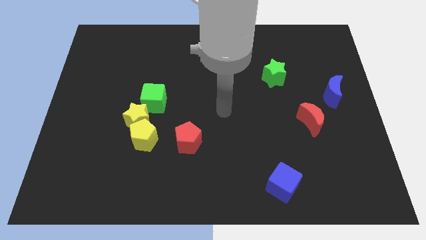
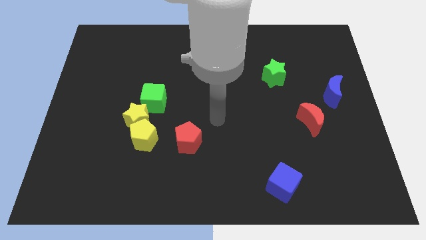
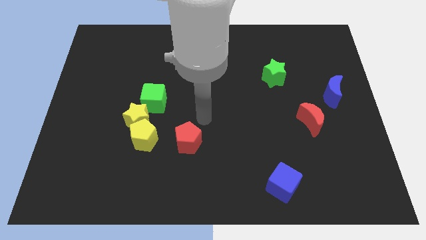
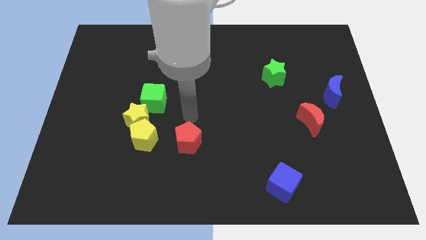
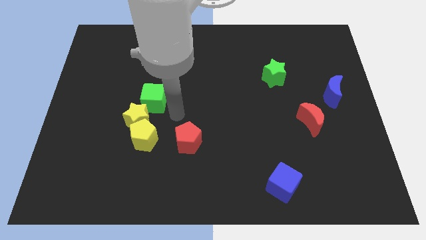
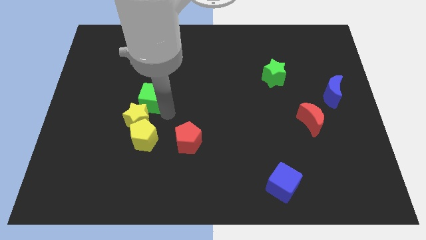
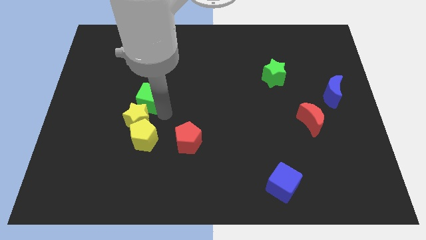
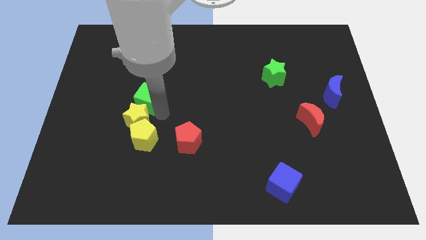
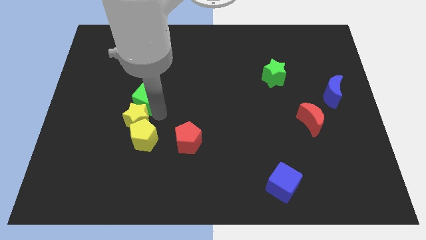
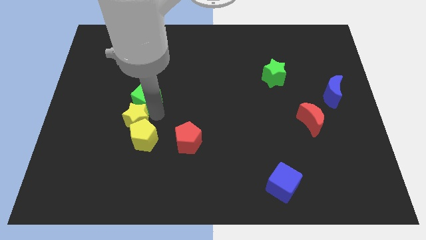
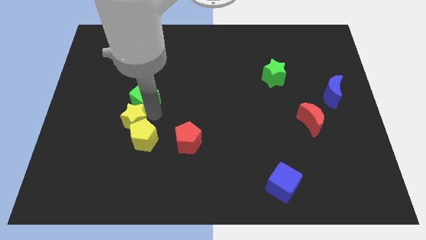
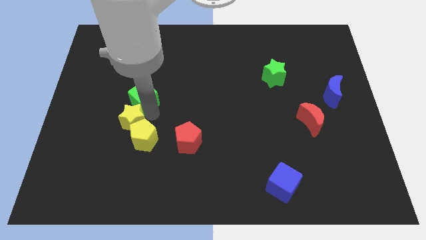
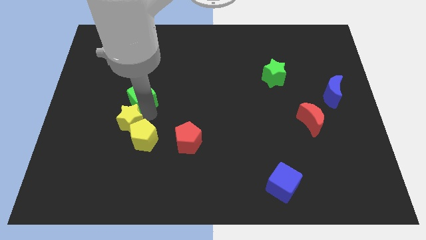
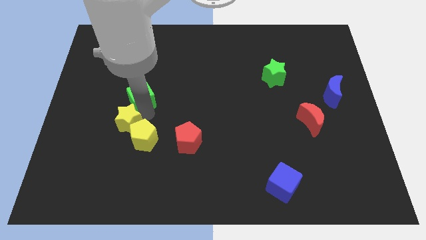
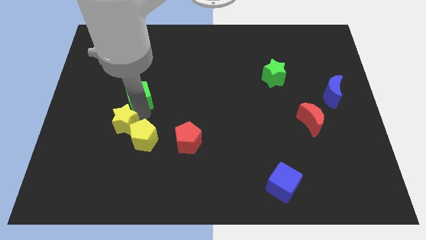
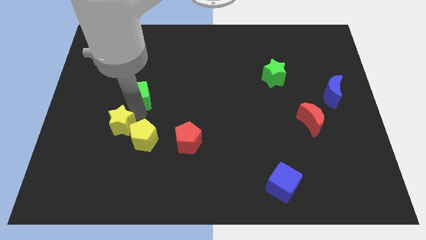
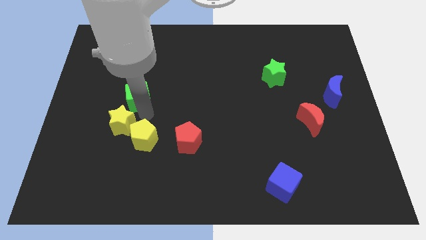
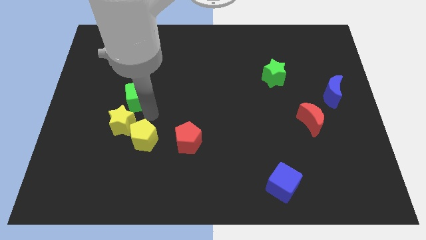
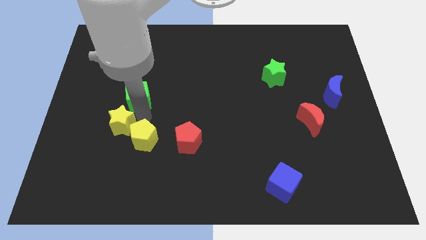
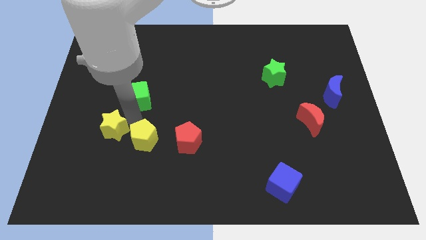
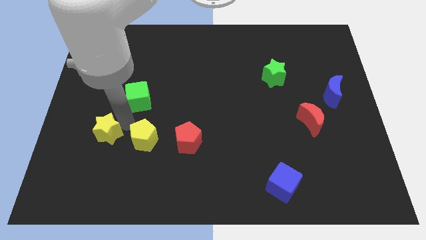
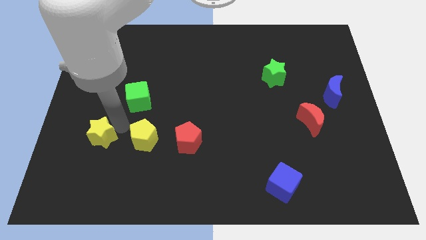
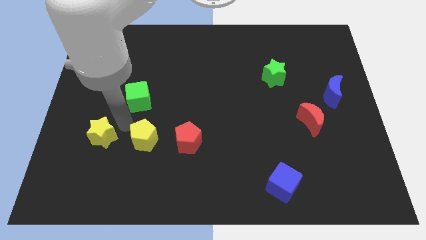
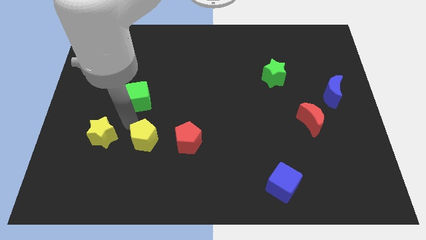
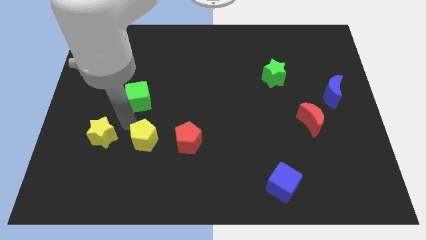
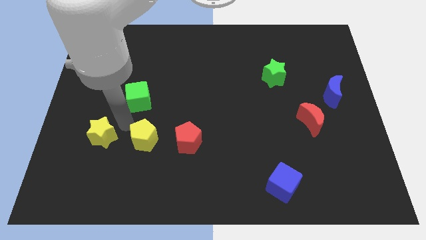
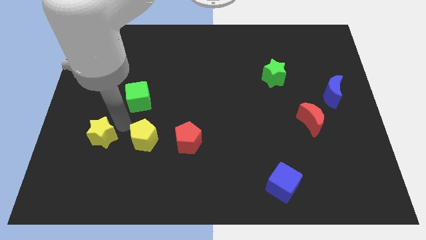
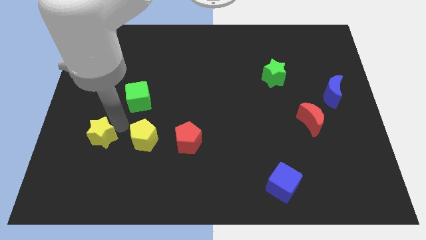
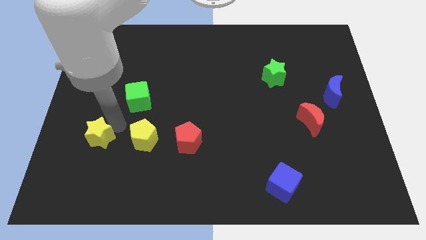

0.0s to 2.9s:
separate the yellow star from the yellow pentagon and green cube

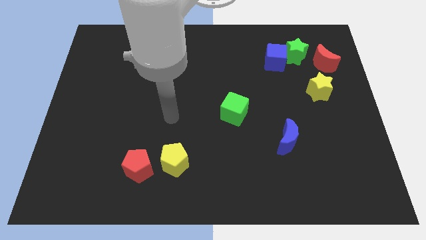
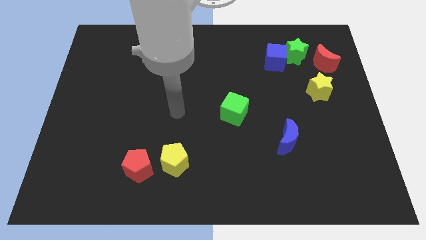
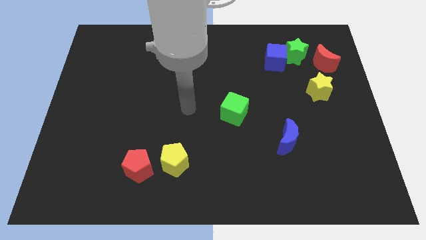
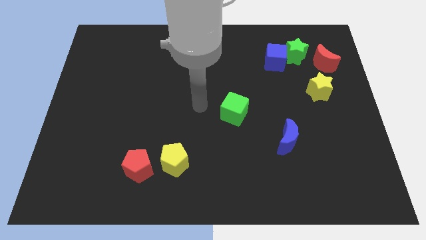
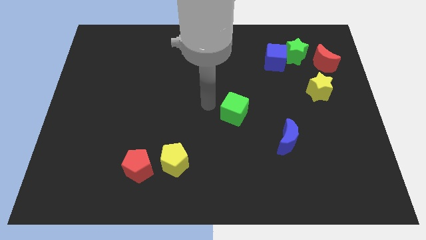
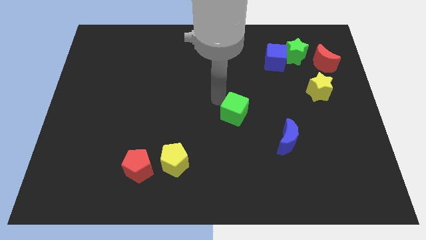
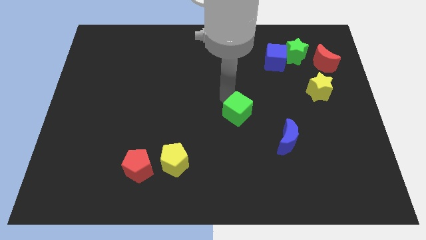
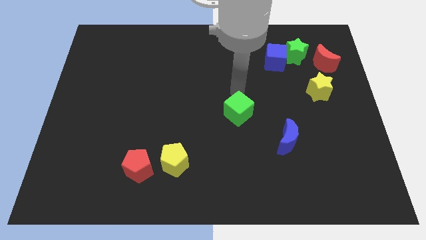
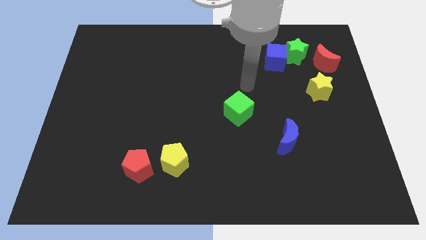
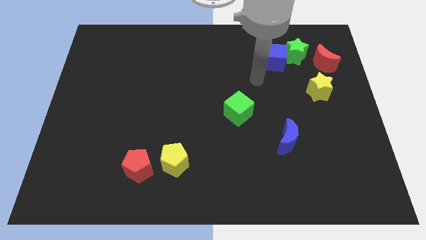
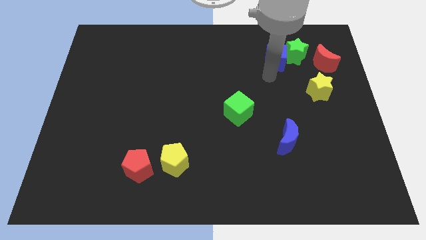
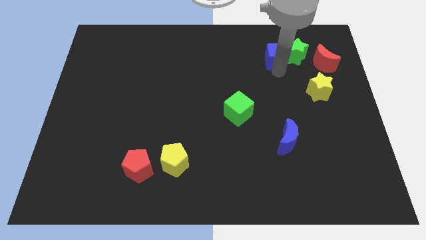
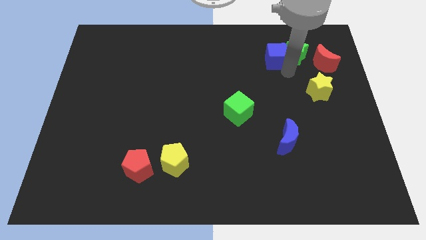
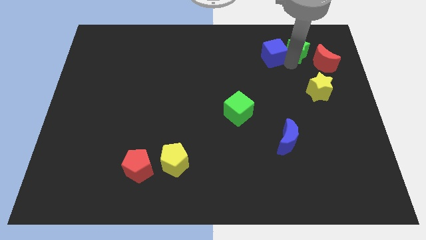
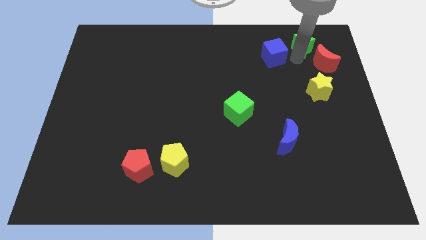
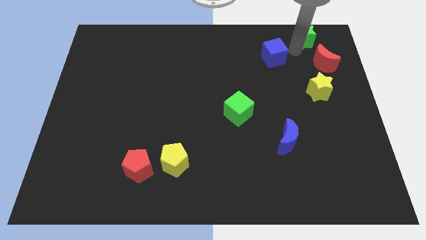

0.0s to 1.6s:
separate the blue cube from the green star

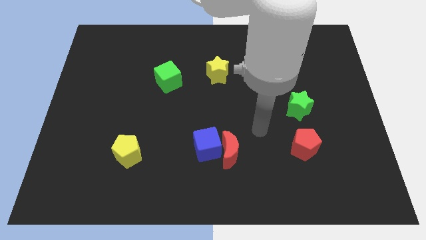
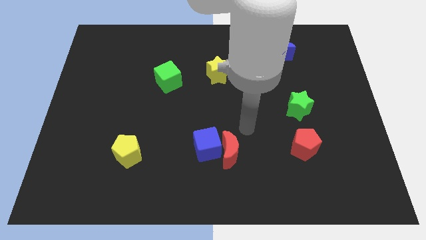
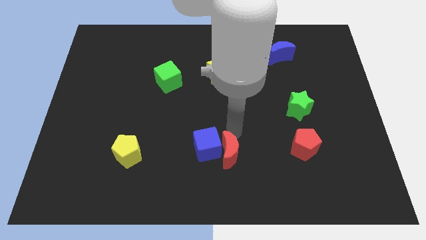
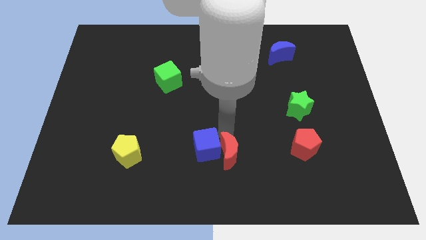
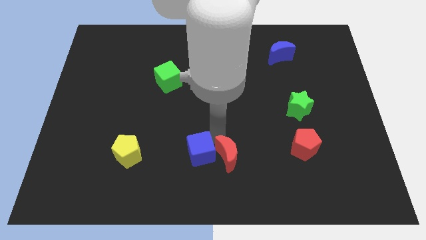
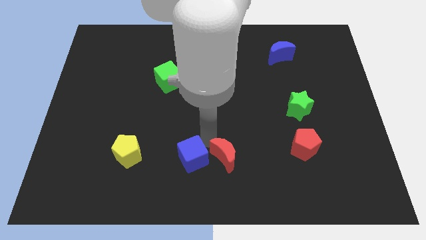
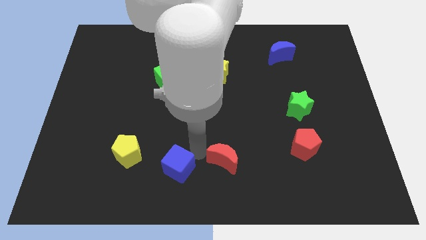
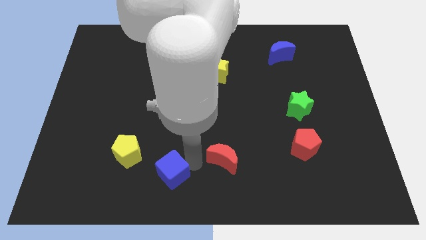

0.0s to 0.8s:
separate the red moon from the blue cube

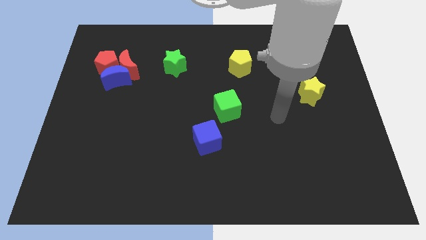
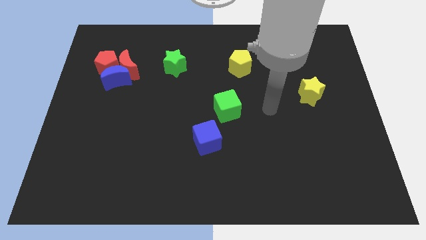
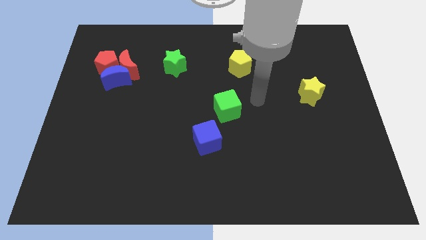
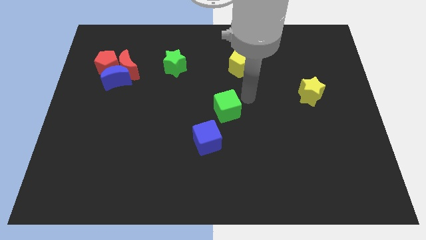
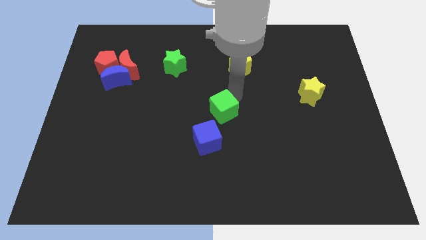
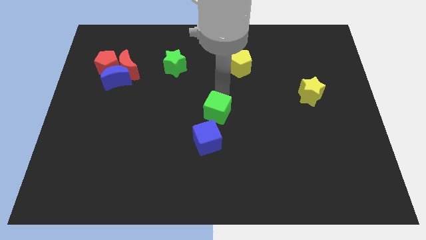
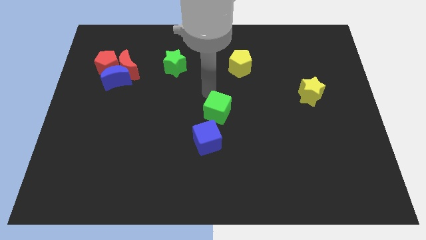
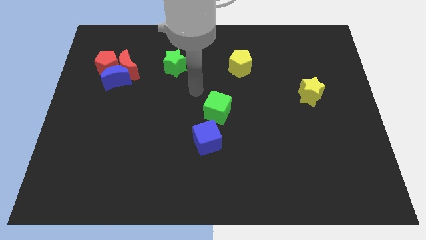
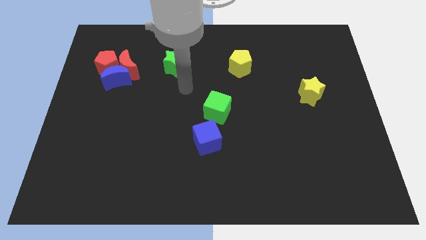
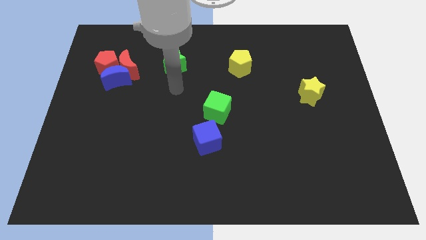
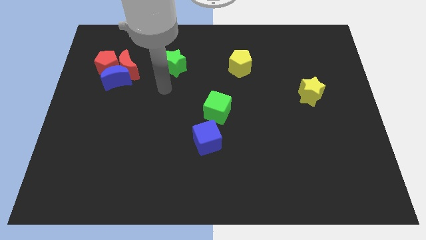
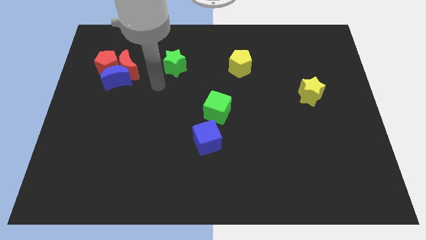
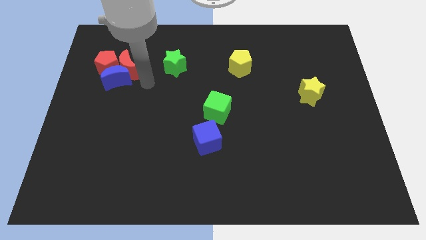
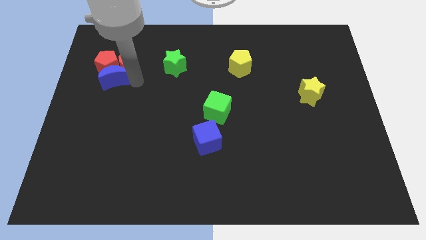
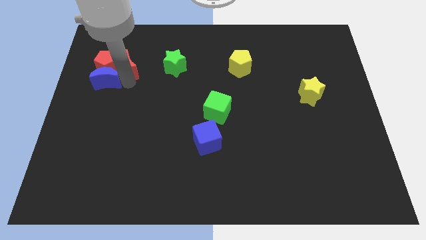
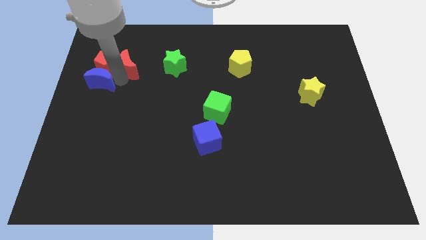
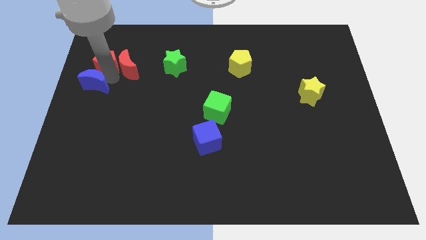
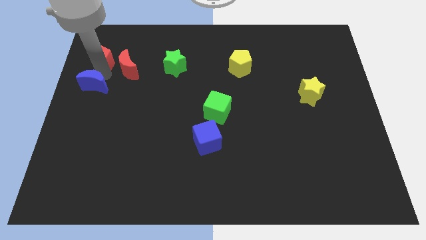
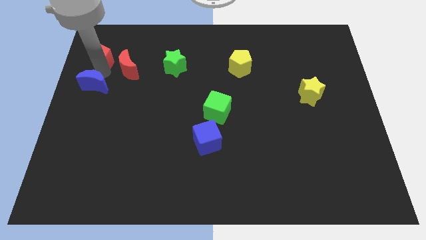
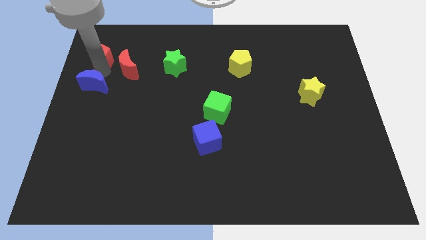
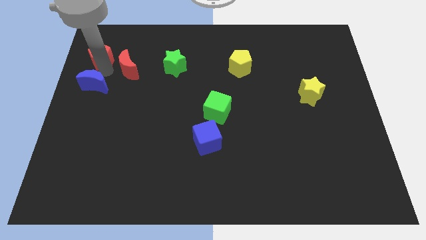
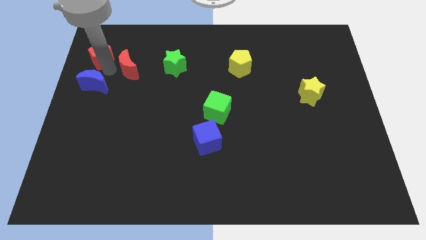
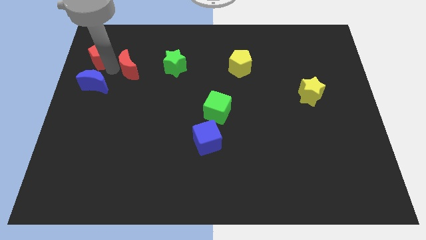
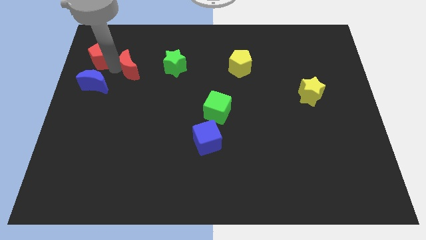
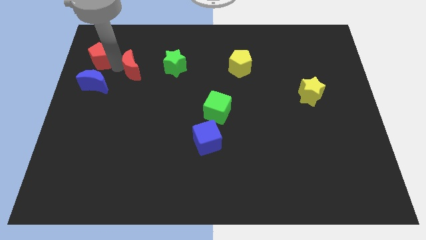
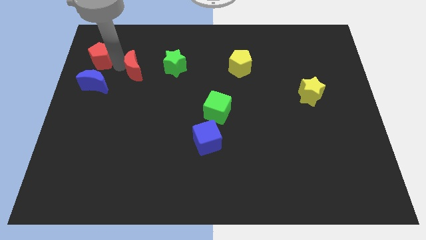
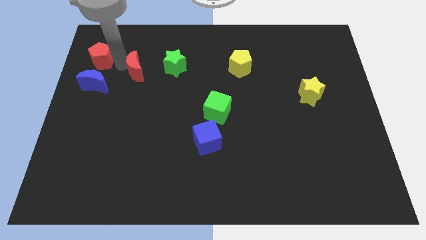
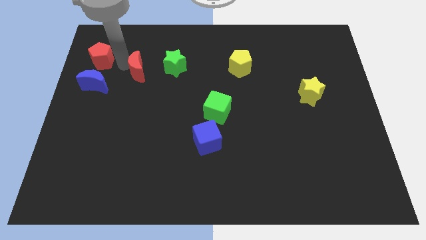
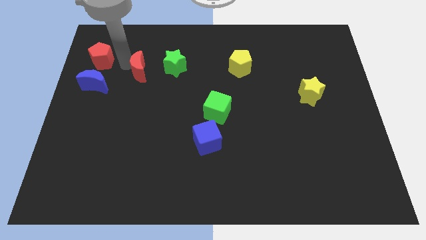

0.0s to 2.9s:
separate the red moon from the blue moon and red pentagon

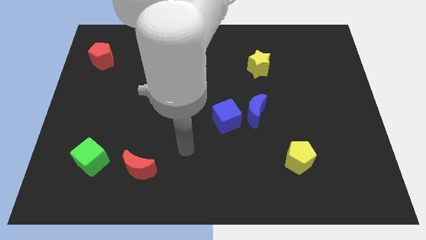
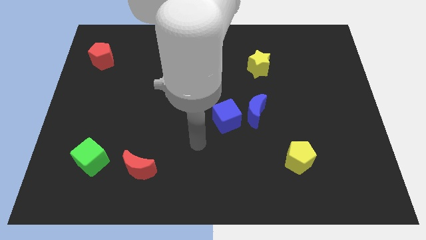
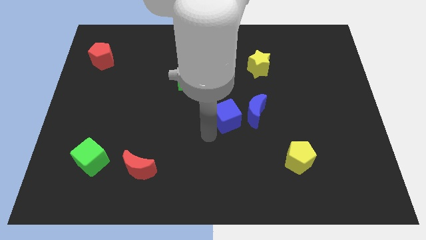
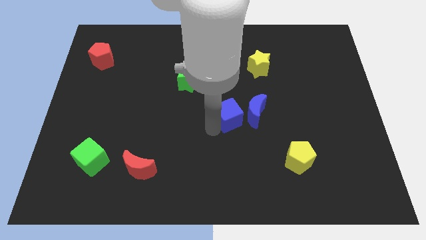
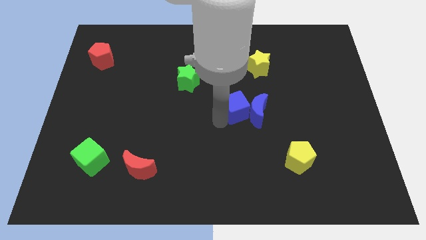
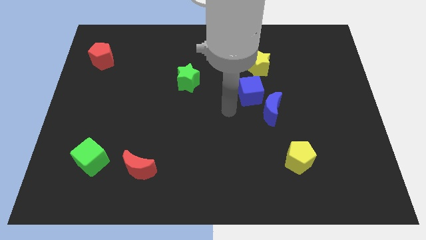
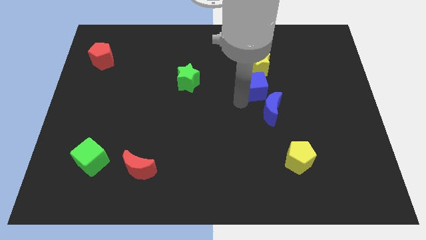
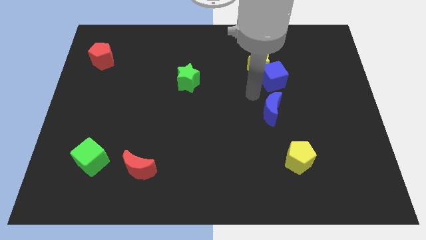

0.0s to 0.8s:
pull the blue moon apart from the blue cube

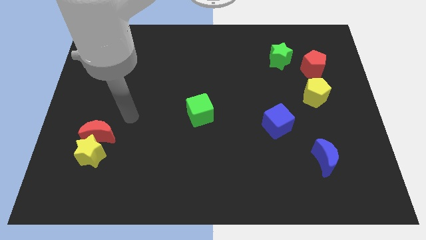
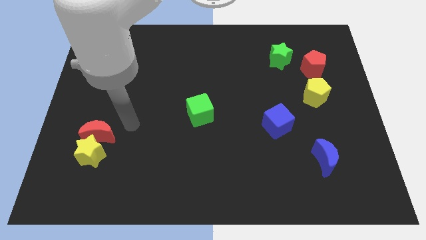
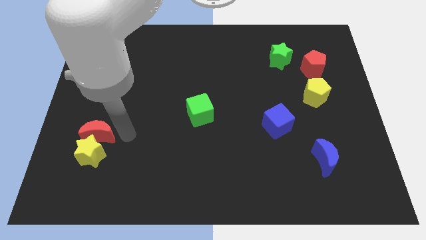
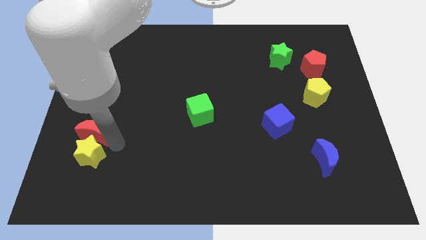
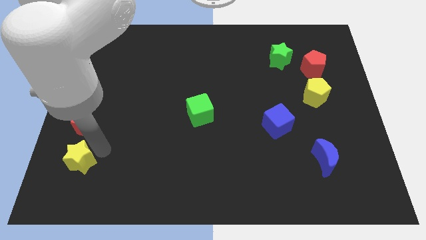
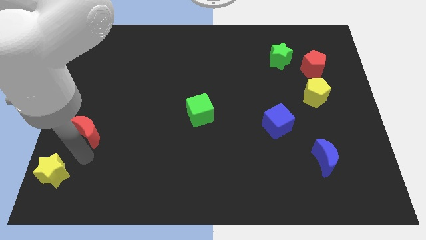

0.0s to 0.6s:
separate the red moon from the yellow star
